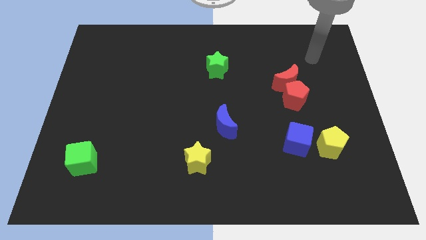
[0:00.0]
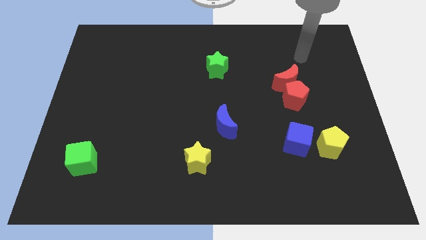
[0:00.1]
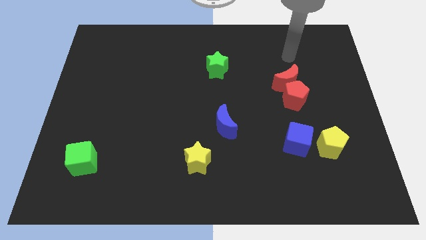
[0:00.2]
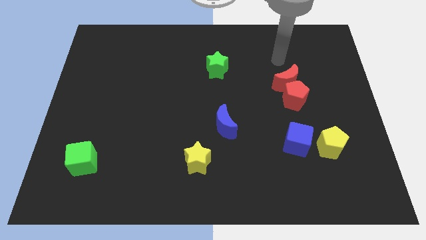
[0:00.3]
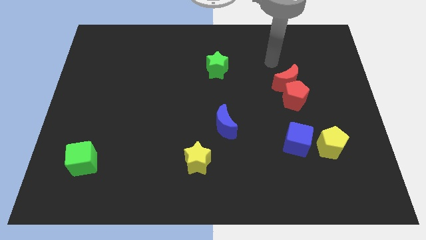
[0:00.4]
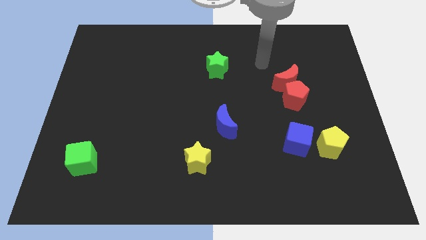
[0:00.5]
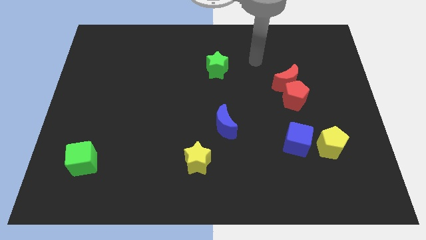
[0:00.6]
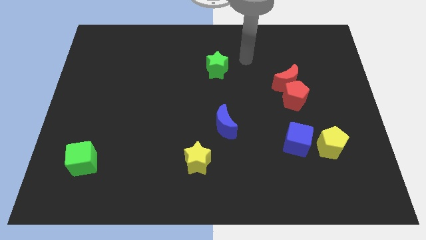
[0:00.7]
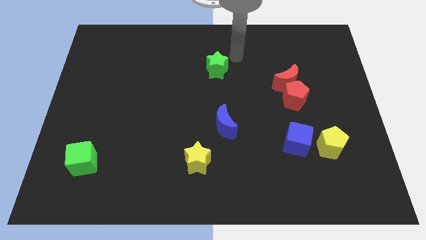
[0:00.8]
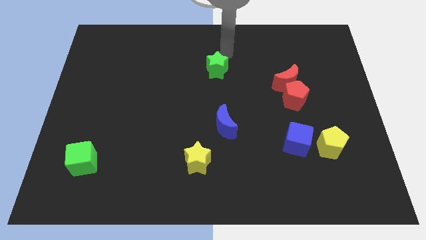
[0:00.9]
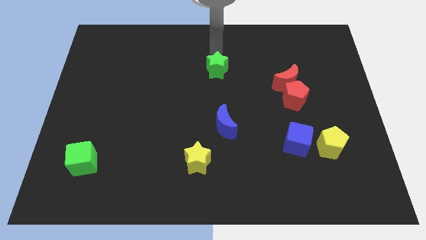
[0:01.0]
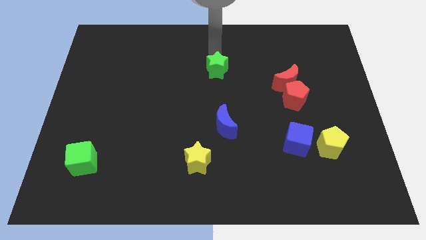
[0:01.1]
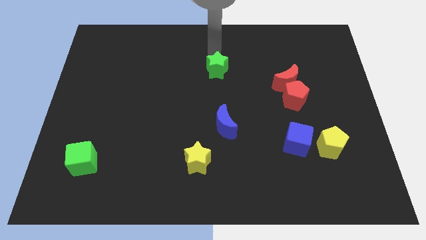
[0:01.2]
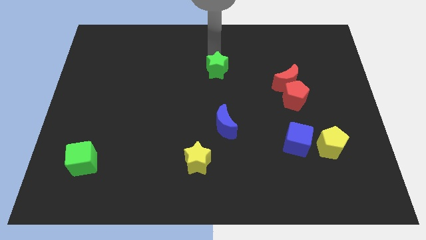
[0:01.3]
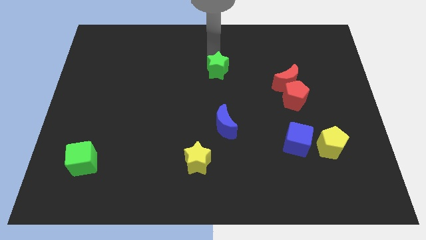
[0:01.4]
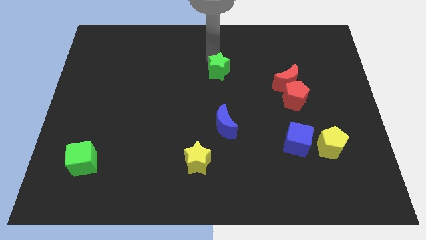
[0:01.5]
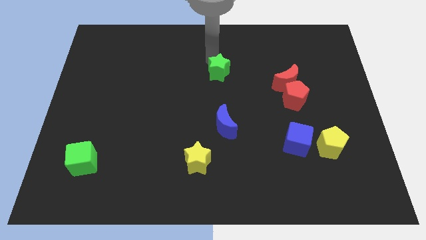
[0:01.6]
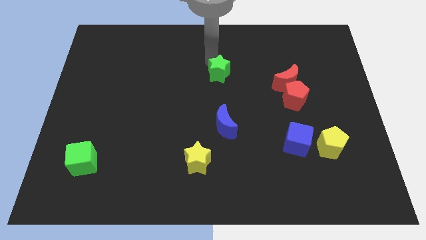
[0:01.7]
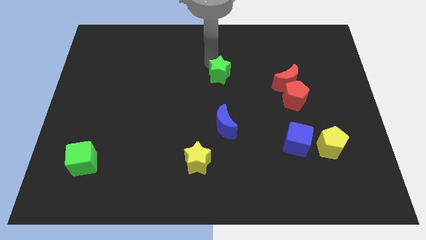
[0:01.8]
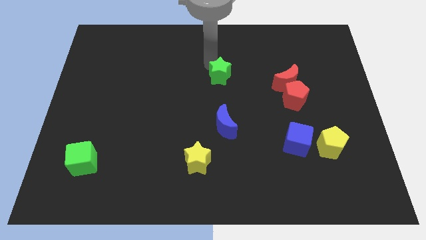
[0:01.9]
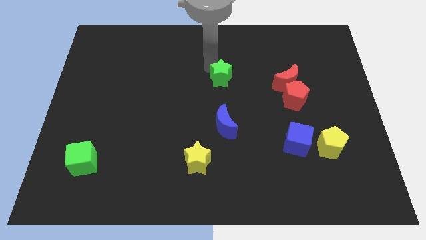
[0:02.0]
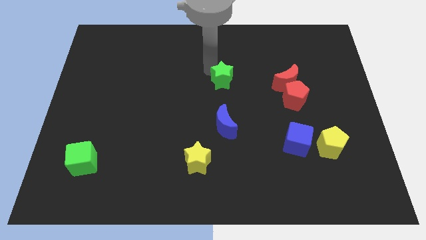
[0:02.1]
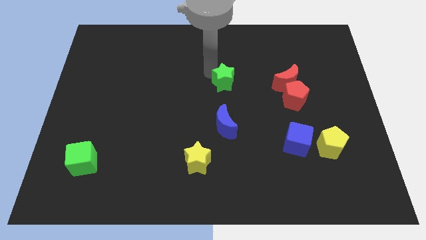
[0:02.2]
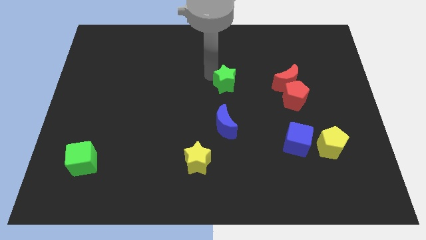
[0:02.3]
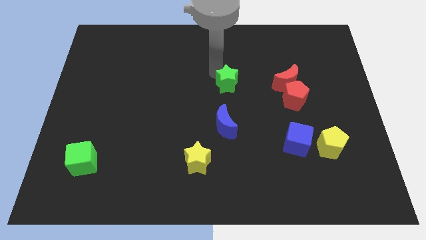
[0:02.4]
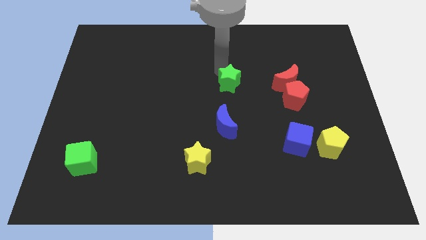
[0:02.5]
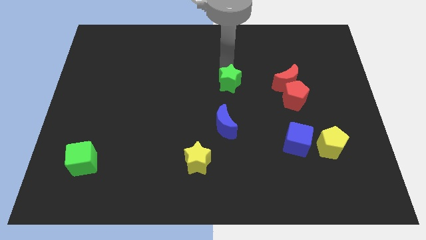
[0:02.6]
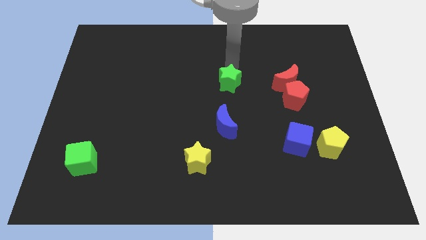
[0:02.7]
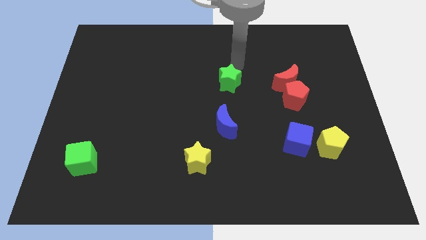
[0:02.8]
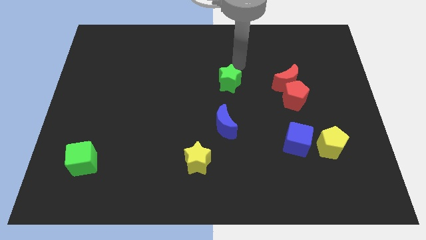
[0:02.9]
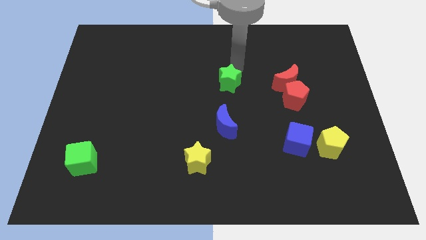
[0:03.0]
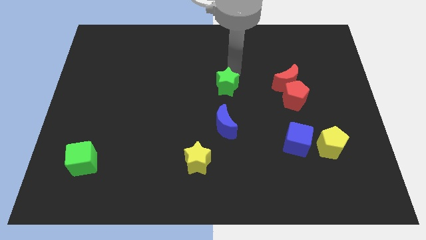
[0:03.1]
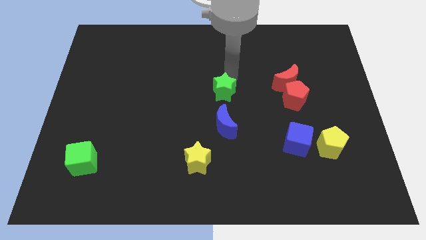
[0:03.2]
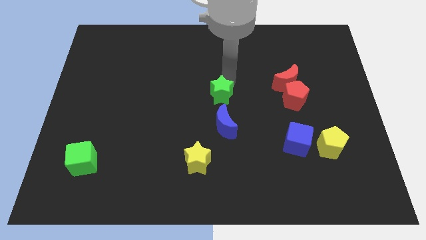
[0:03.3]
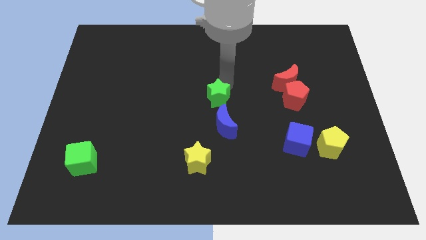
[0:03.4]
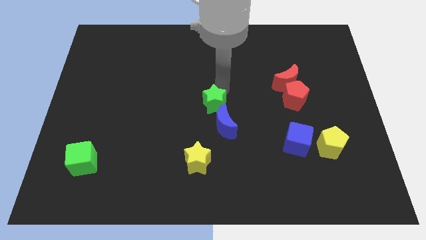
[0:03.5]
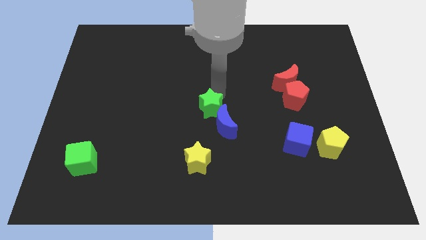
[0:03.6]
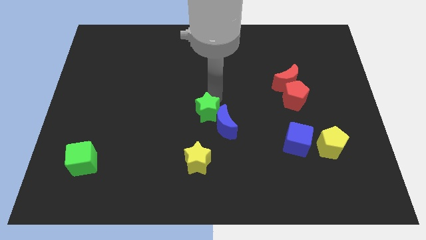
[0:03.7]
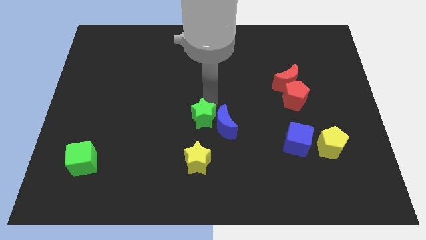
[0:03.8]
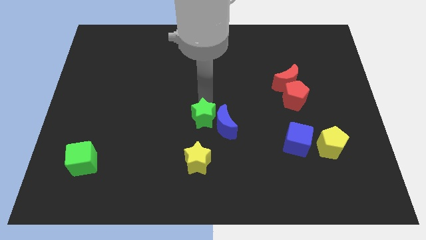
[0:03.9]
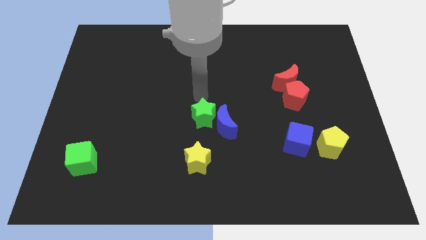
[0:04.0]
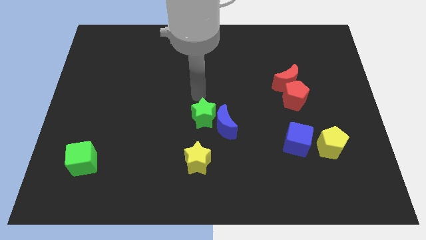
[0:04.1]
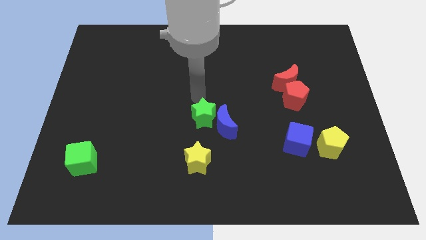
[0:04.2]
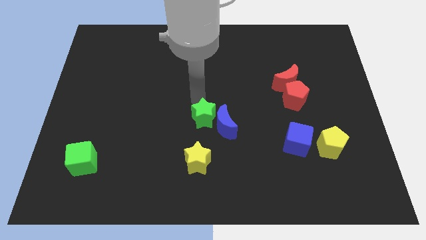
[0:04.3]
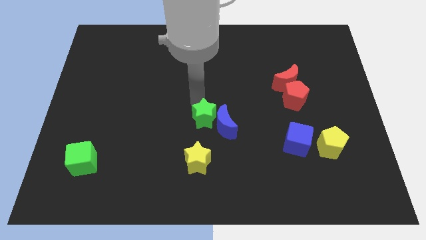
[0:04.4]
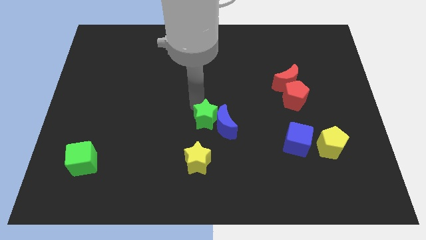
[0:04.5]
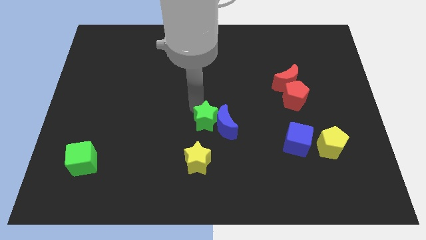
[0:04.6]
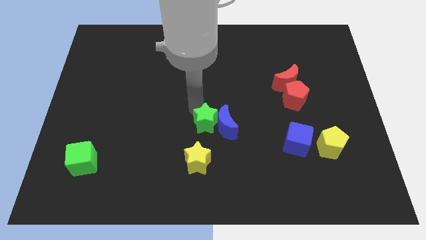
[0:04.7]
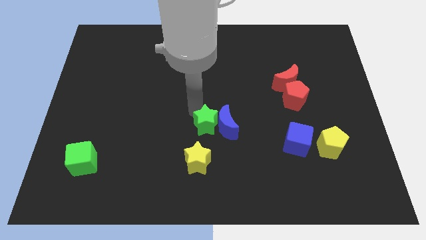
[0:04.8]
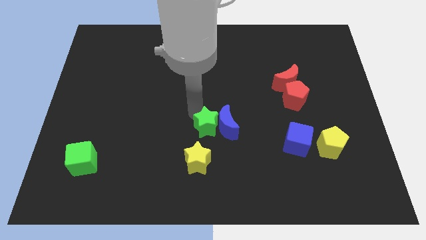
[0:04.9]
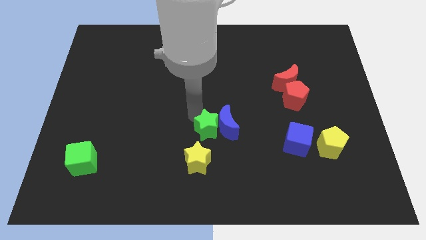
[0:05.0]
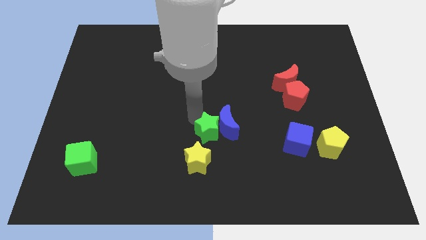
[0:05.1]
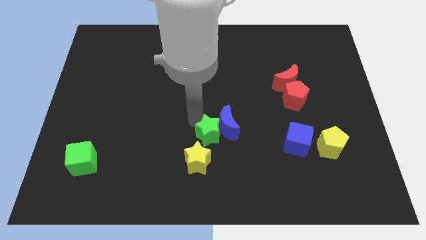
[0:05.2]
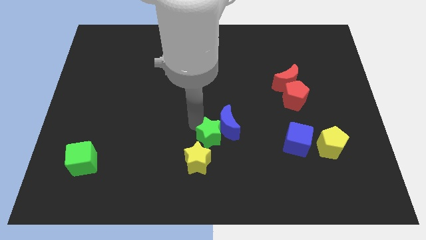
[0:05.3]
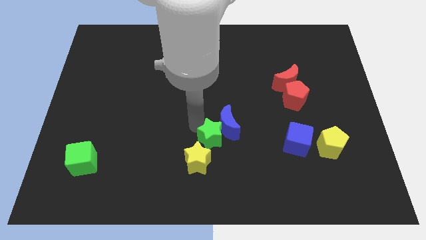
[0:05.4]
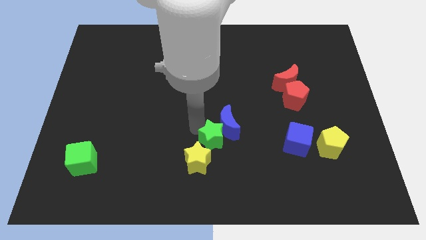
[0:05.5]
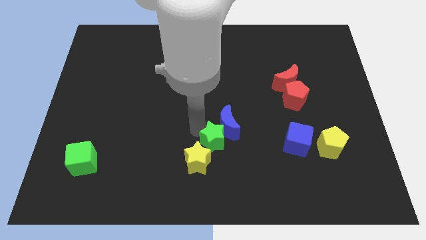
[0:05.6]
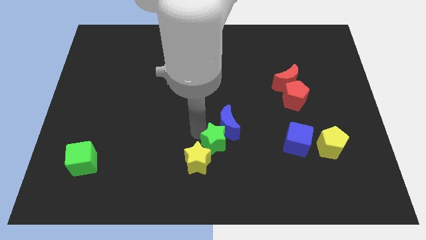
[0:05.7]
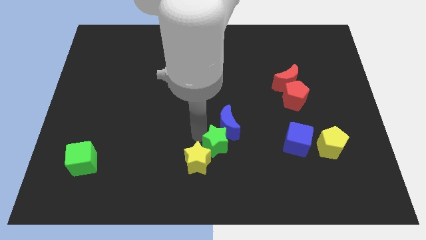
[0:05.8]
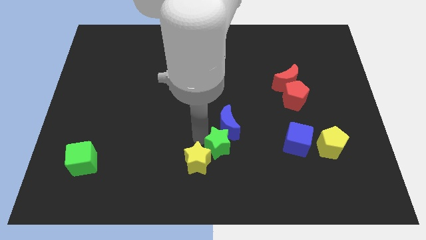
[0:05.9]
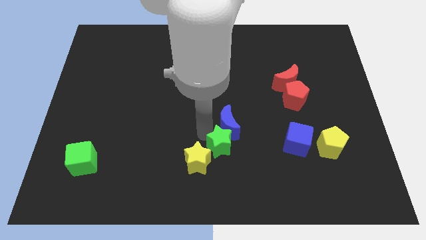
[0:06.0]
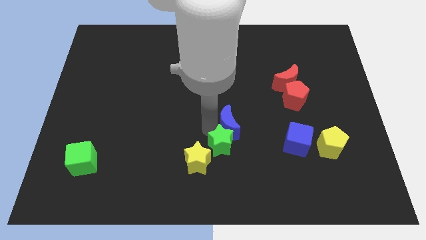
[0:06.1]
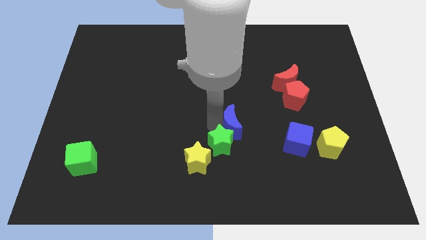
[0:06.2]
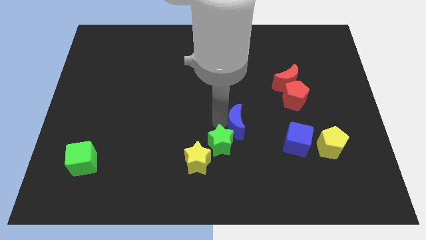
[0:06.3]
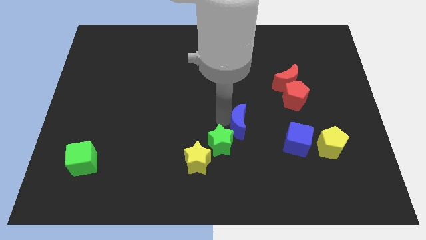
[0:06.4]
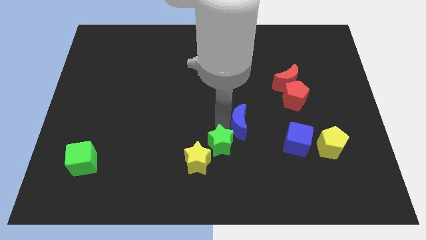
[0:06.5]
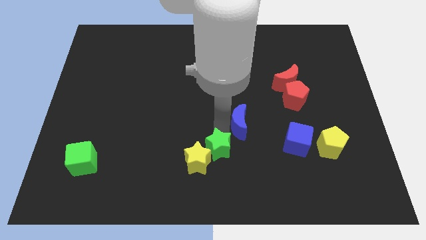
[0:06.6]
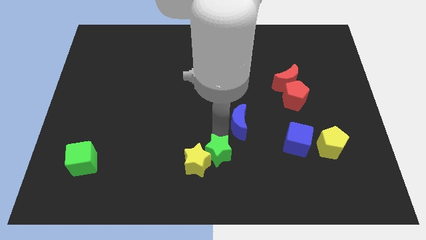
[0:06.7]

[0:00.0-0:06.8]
slide the green star to the bottom side

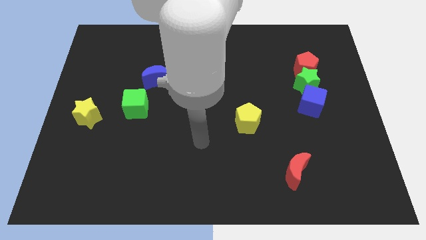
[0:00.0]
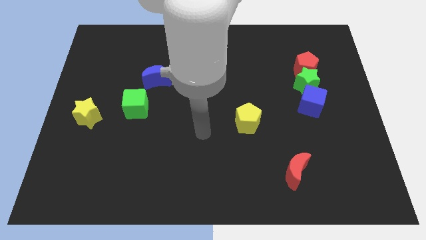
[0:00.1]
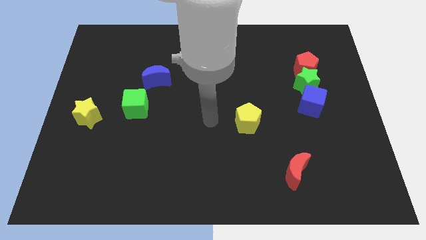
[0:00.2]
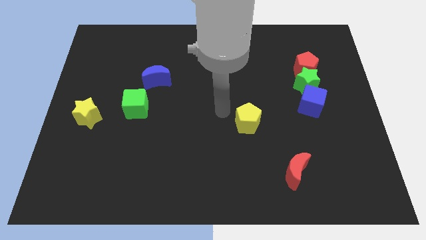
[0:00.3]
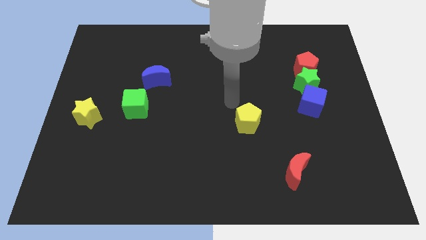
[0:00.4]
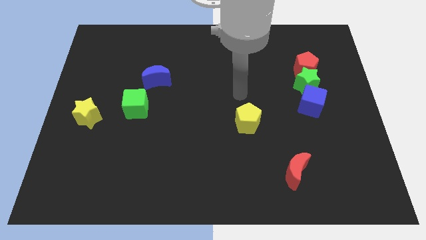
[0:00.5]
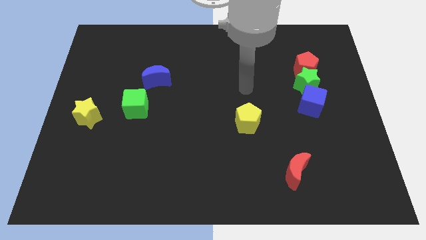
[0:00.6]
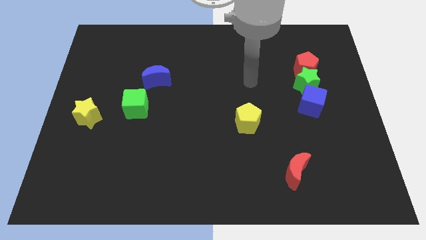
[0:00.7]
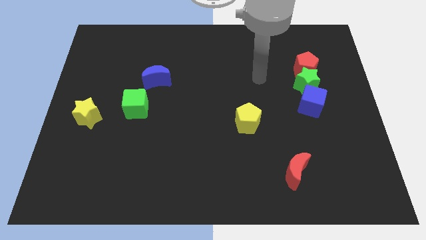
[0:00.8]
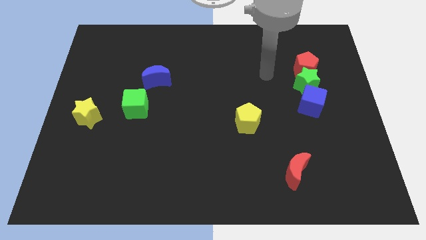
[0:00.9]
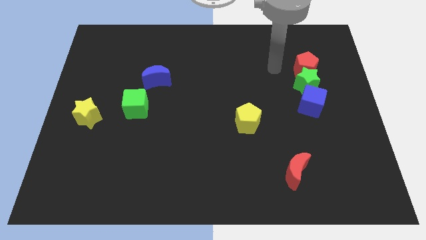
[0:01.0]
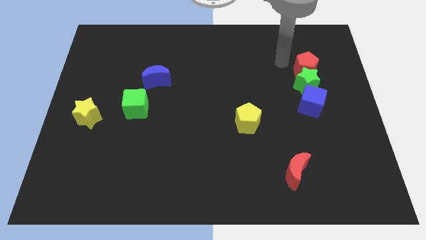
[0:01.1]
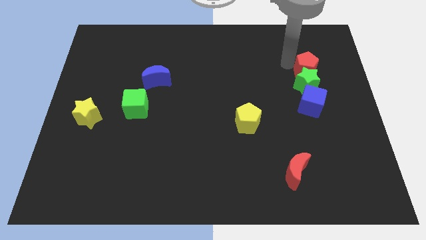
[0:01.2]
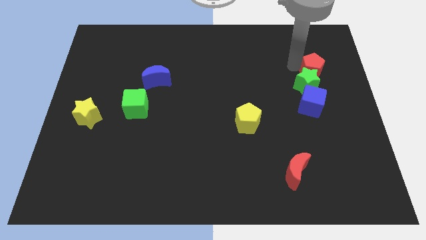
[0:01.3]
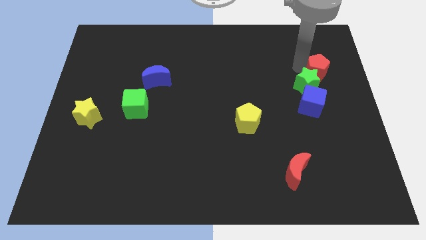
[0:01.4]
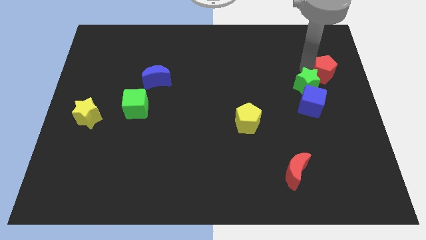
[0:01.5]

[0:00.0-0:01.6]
push the red pentagon to the center right
